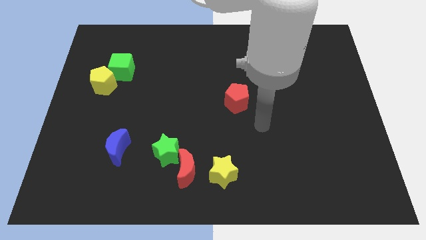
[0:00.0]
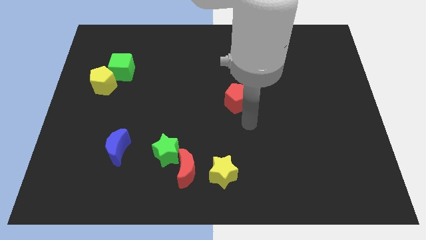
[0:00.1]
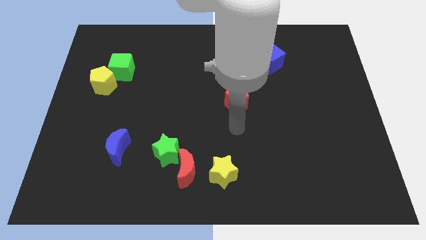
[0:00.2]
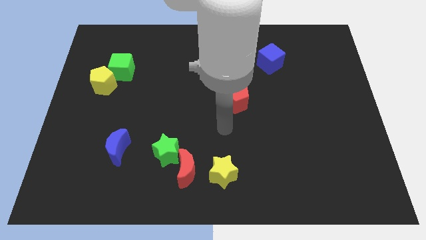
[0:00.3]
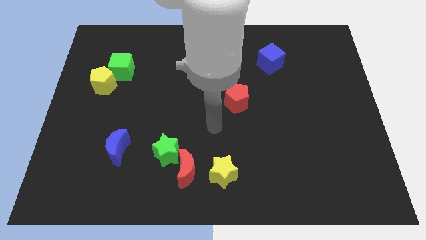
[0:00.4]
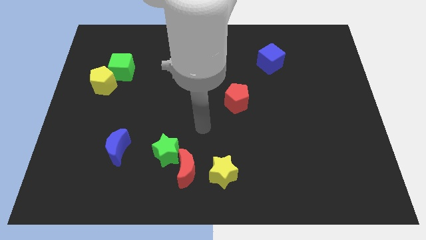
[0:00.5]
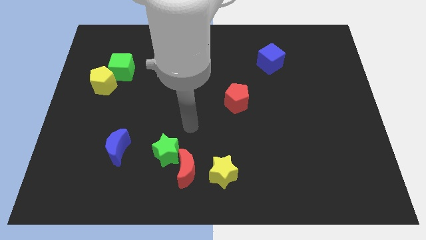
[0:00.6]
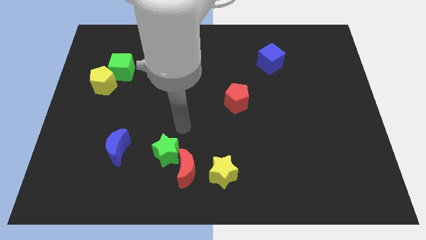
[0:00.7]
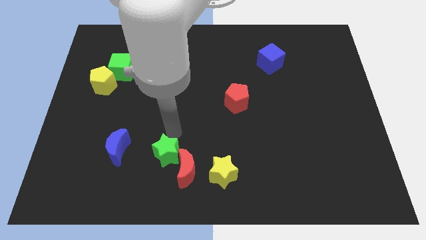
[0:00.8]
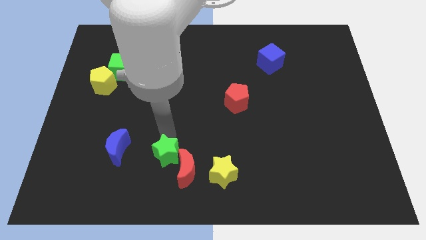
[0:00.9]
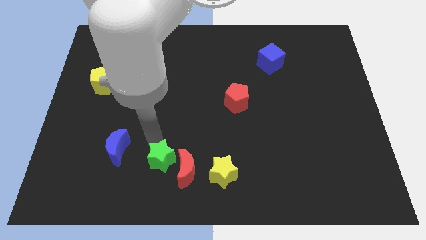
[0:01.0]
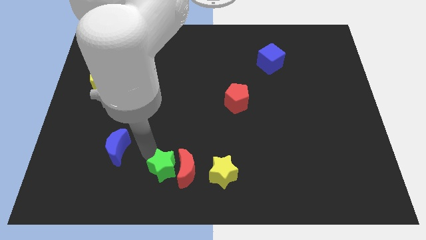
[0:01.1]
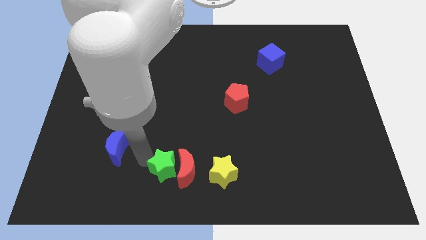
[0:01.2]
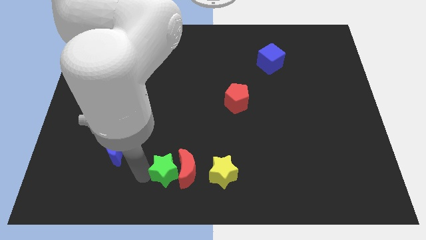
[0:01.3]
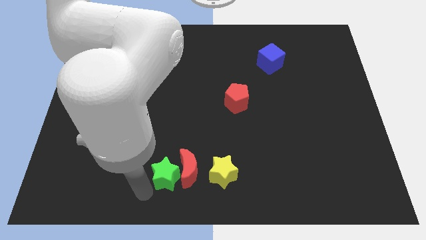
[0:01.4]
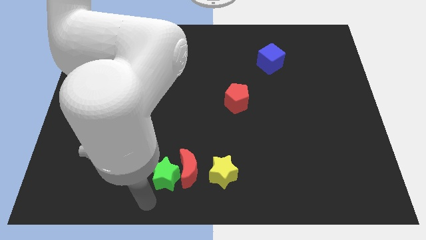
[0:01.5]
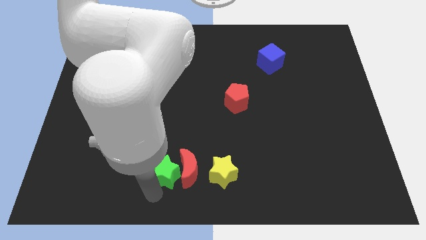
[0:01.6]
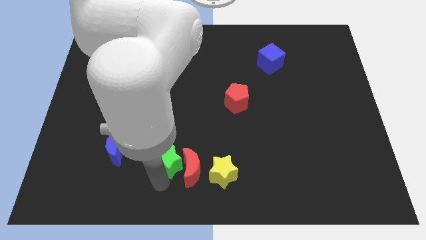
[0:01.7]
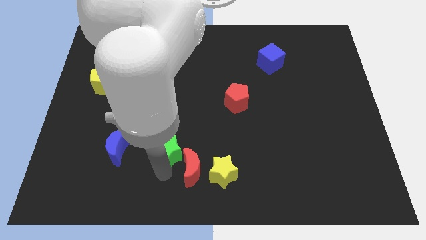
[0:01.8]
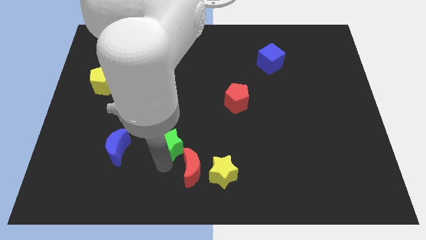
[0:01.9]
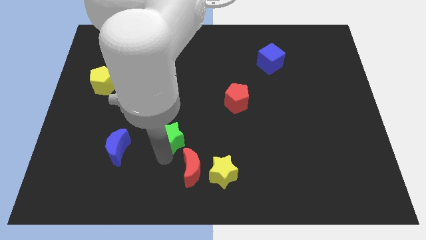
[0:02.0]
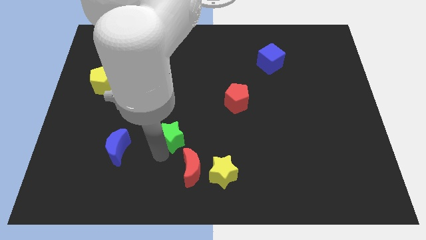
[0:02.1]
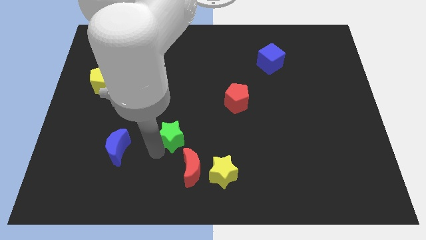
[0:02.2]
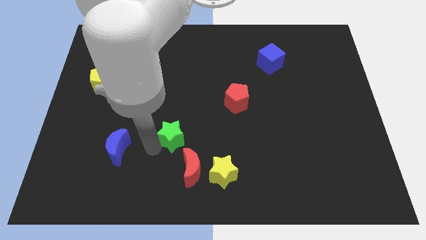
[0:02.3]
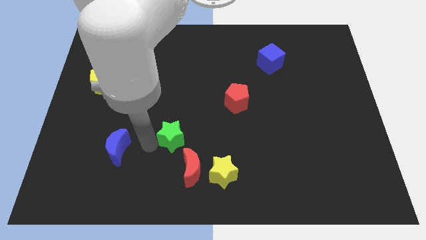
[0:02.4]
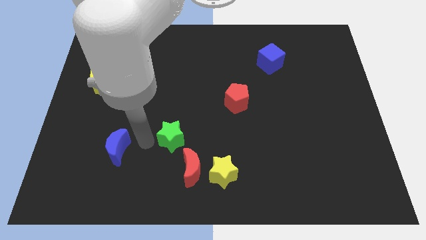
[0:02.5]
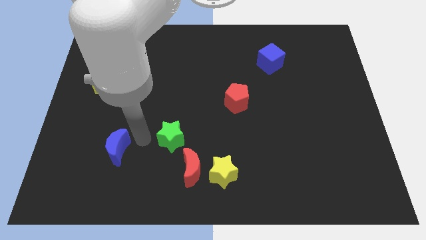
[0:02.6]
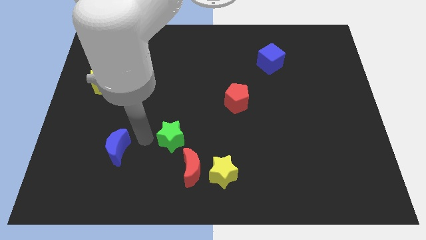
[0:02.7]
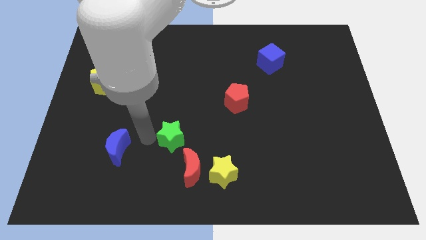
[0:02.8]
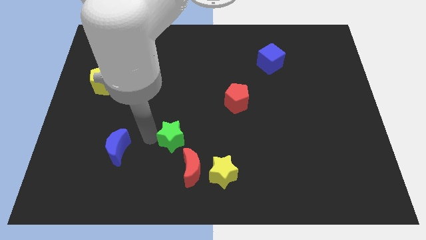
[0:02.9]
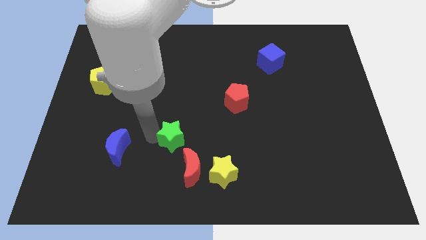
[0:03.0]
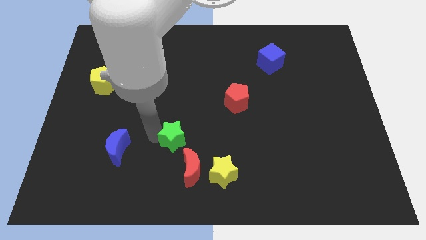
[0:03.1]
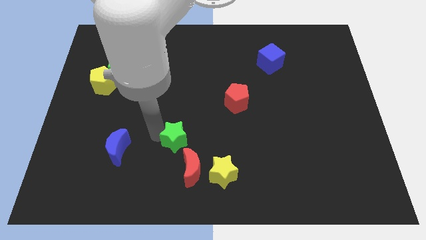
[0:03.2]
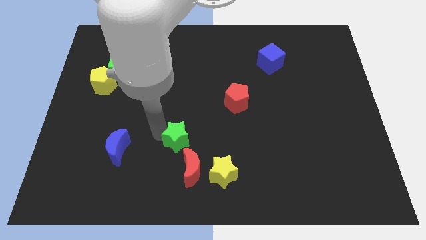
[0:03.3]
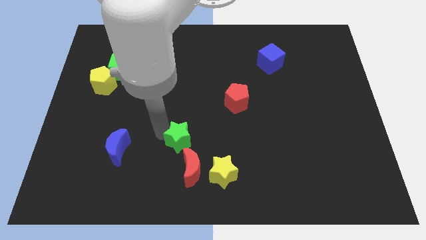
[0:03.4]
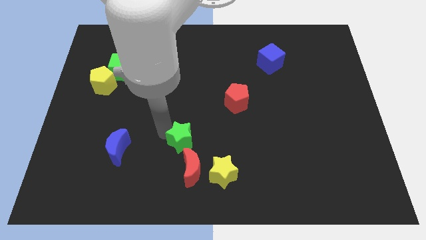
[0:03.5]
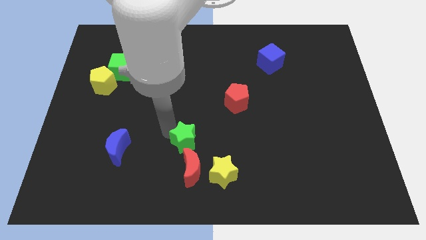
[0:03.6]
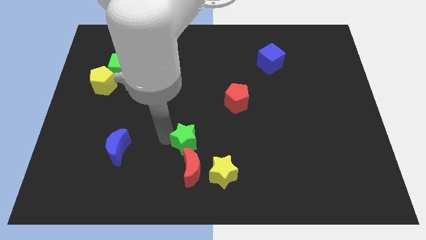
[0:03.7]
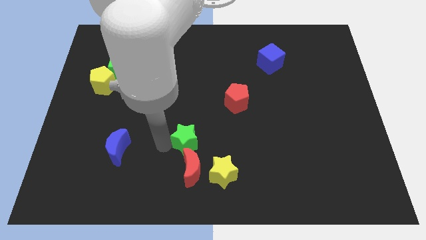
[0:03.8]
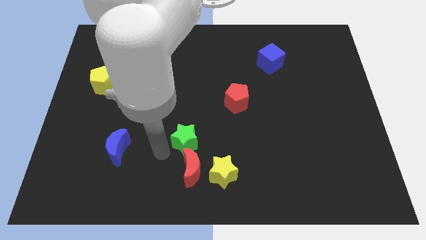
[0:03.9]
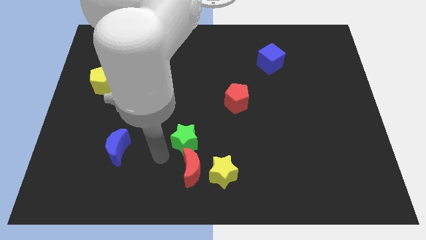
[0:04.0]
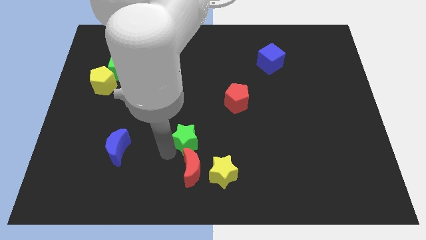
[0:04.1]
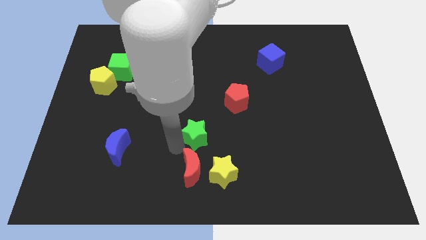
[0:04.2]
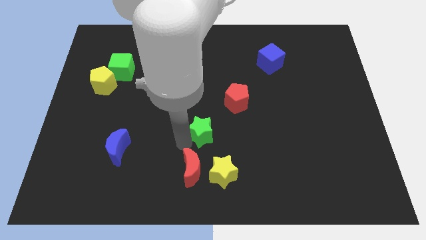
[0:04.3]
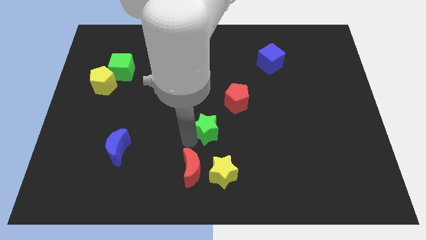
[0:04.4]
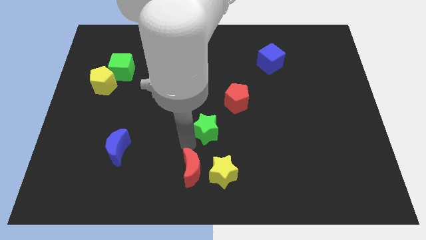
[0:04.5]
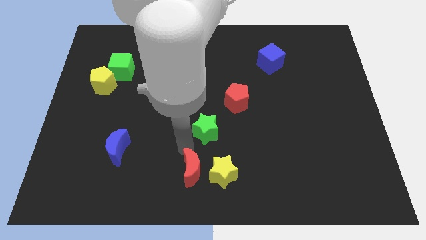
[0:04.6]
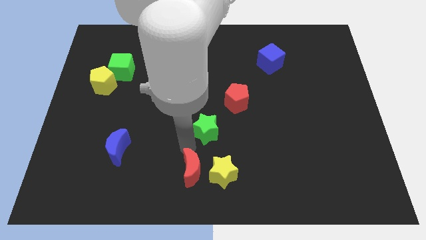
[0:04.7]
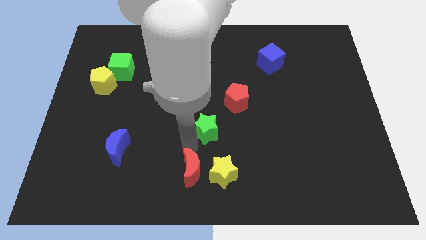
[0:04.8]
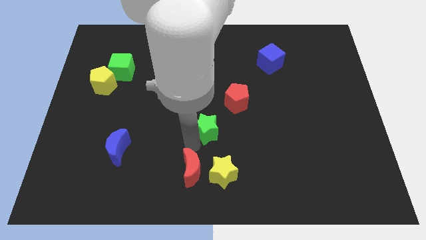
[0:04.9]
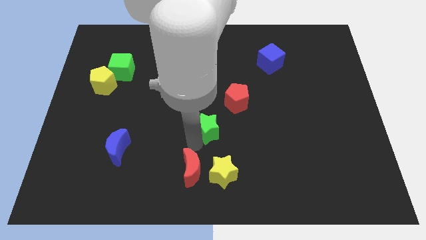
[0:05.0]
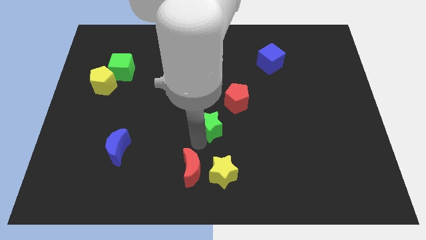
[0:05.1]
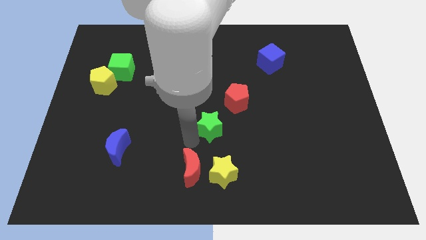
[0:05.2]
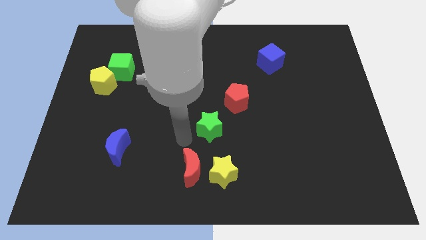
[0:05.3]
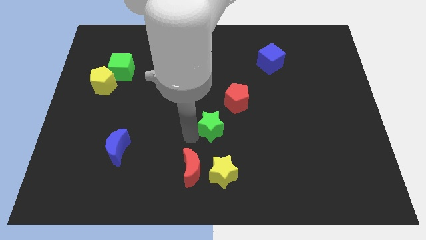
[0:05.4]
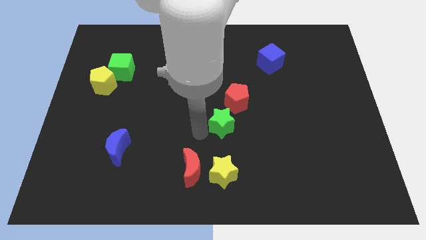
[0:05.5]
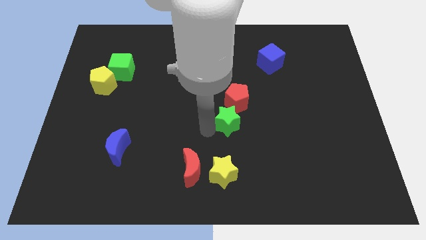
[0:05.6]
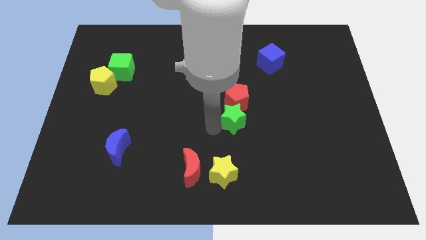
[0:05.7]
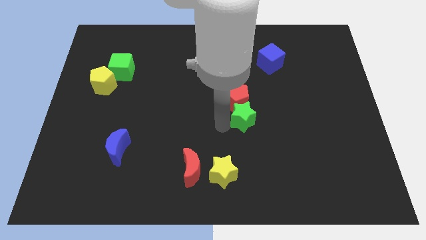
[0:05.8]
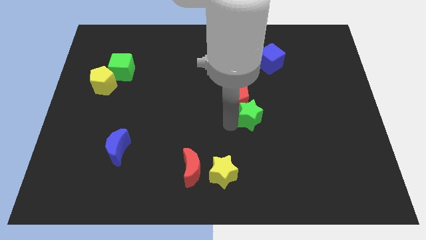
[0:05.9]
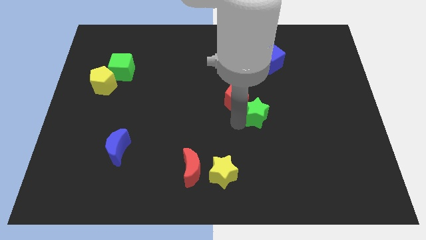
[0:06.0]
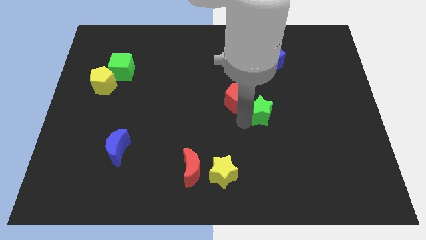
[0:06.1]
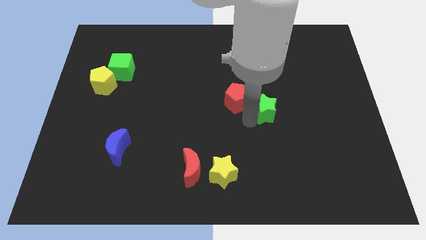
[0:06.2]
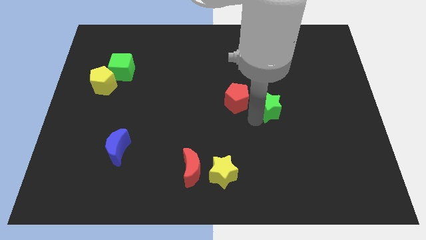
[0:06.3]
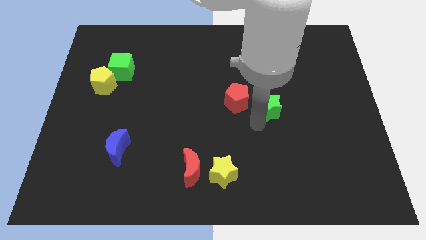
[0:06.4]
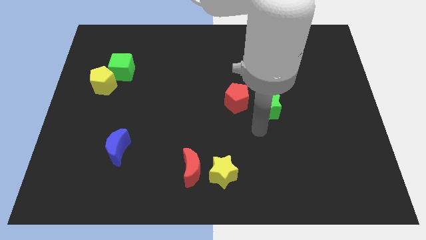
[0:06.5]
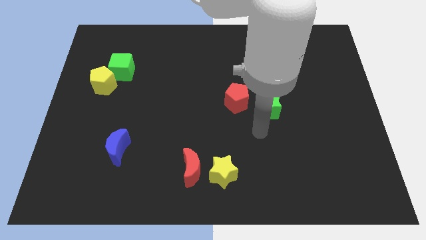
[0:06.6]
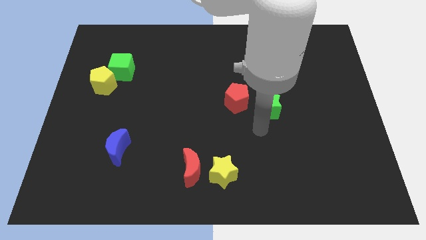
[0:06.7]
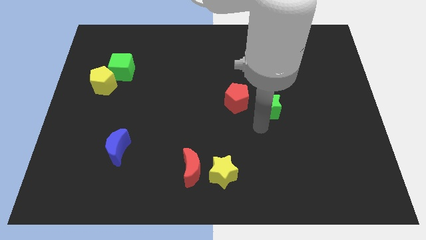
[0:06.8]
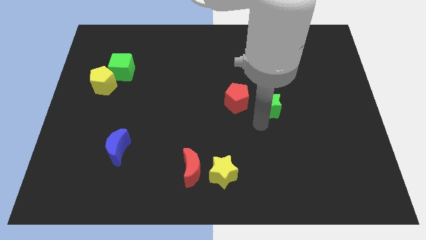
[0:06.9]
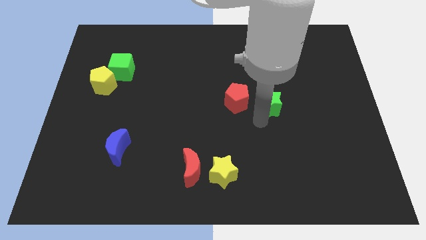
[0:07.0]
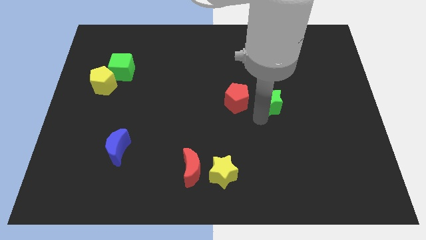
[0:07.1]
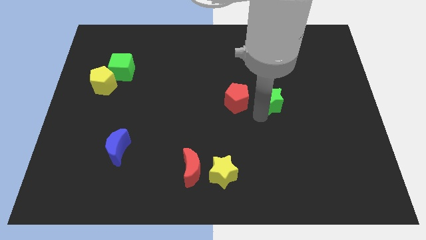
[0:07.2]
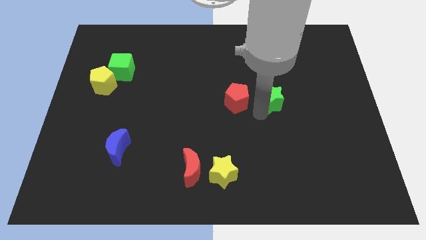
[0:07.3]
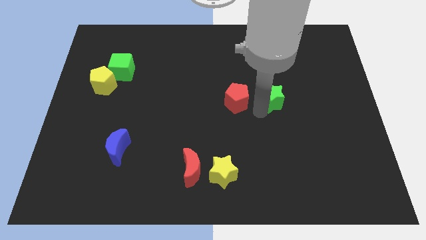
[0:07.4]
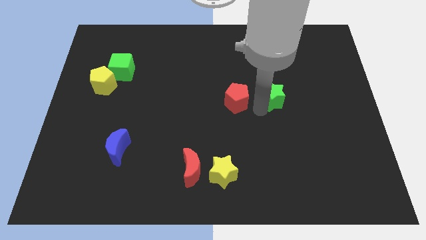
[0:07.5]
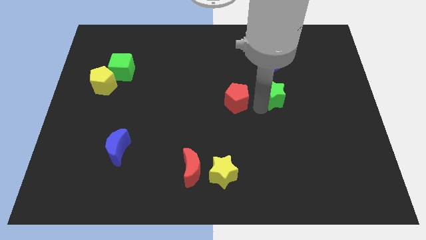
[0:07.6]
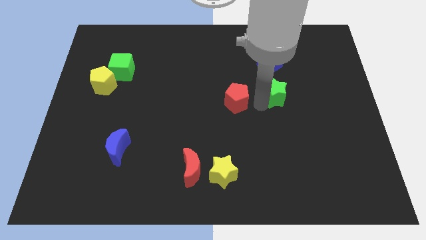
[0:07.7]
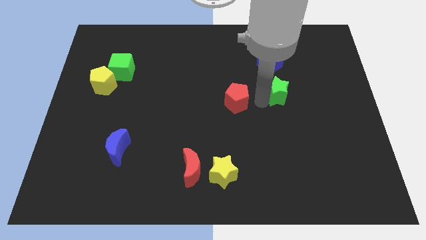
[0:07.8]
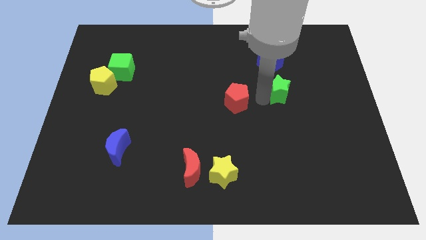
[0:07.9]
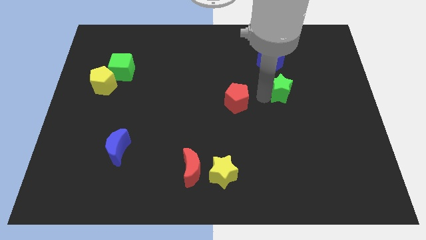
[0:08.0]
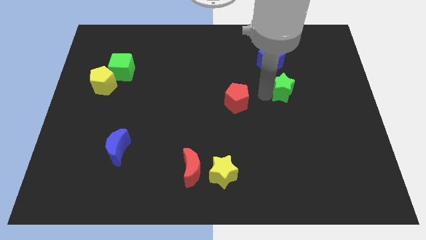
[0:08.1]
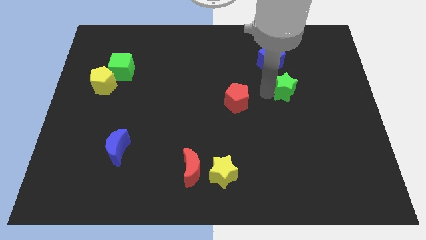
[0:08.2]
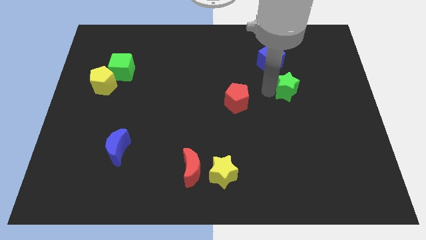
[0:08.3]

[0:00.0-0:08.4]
push the green star to the bottom right of the blue cube
